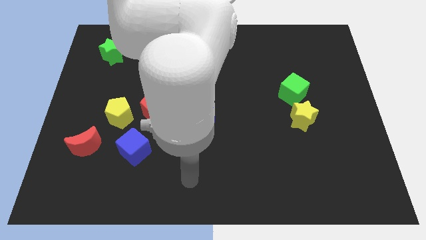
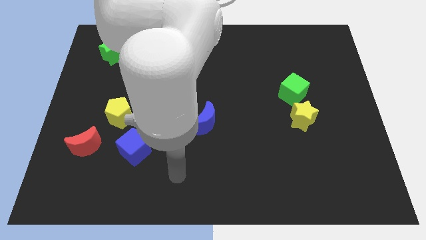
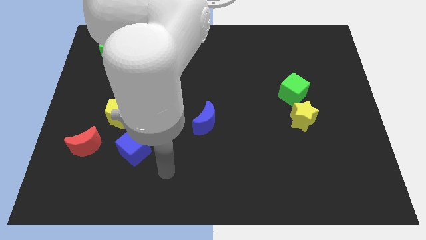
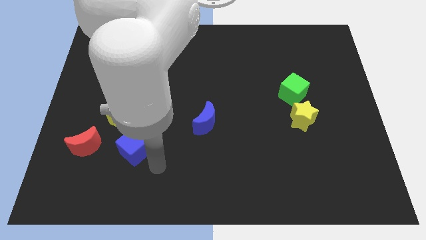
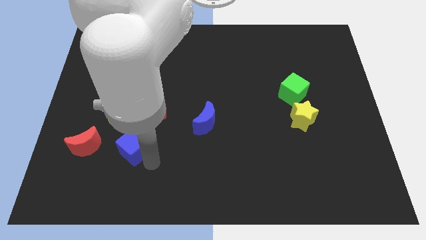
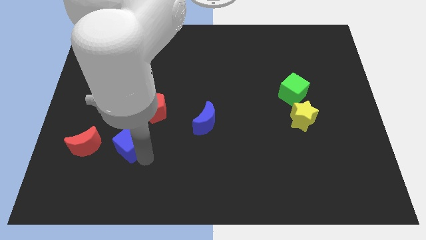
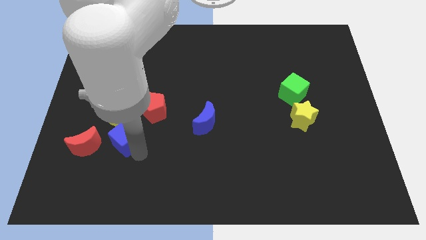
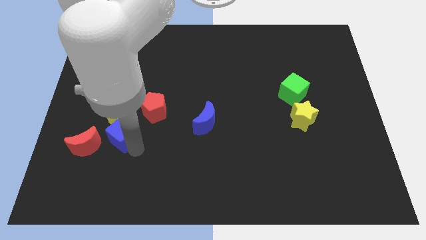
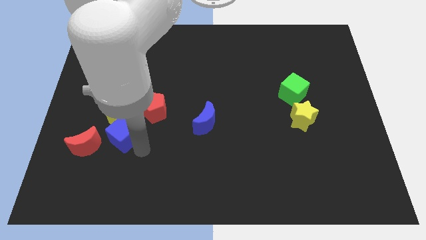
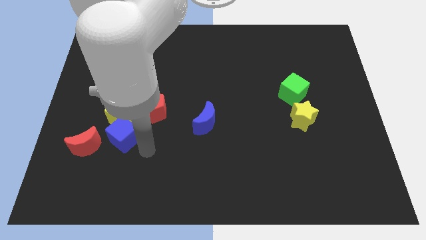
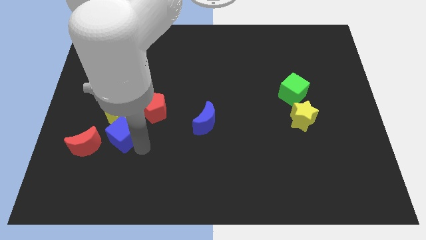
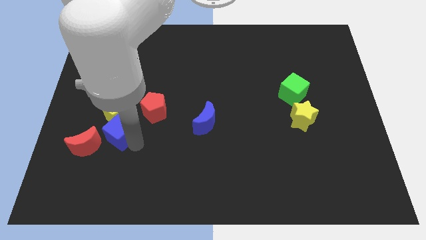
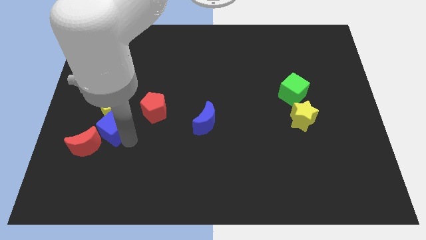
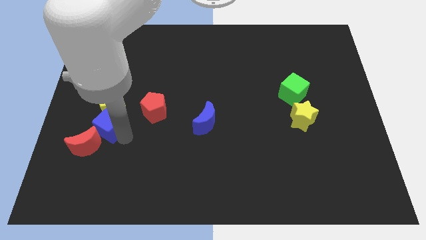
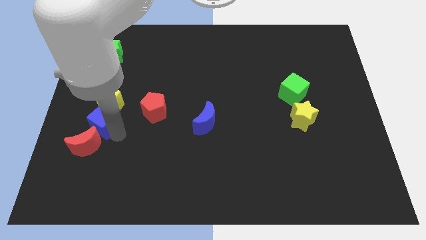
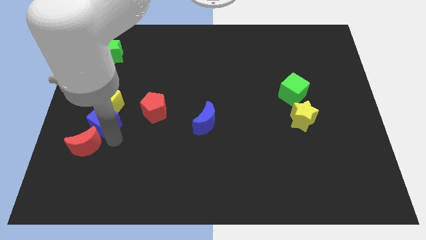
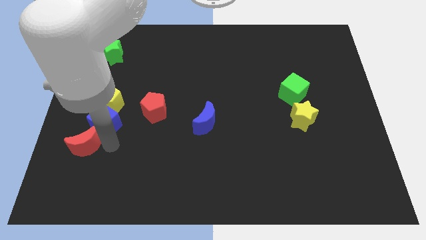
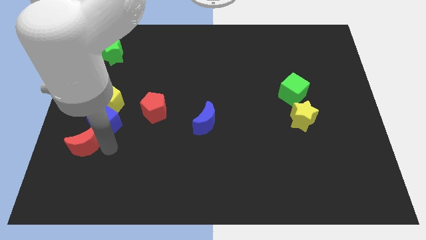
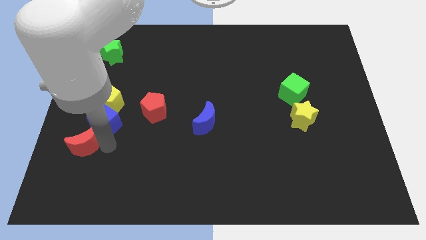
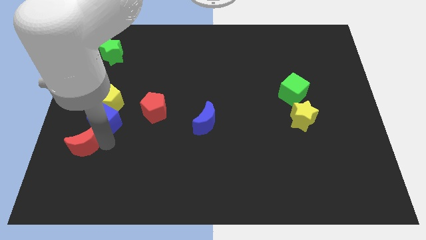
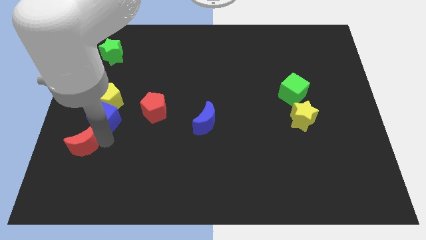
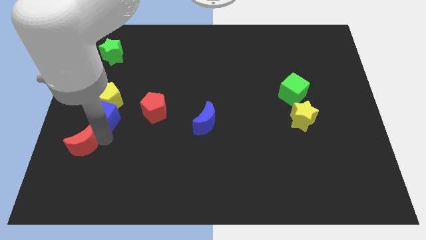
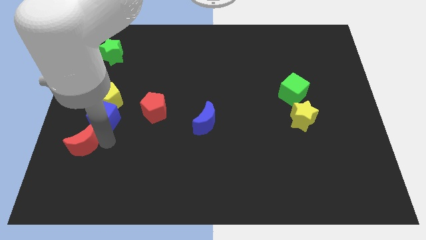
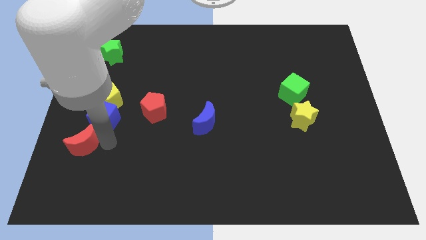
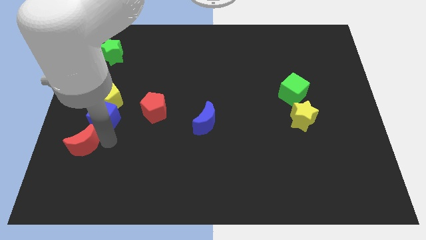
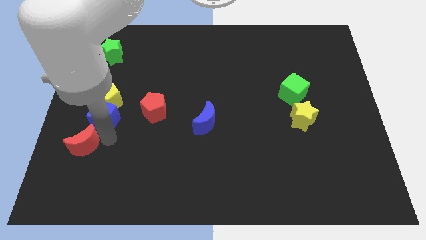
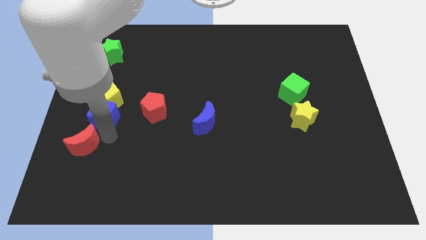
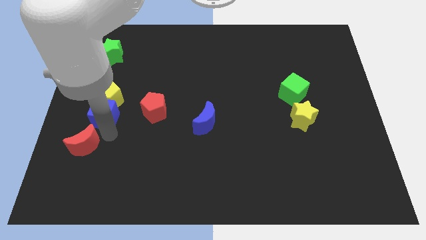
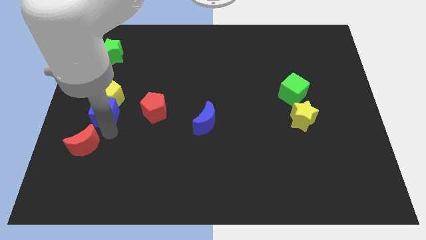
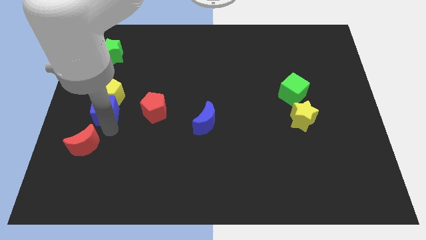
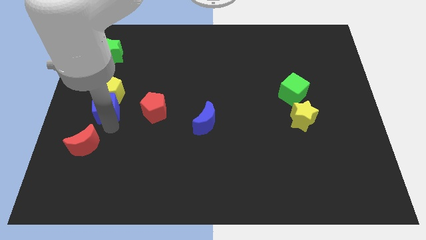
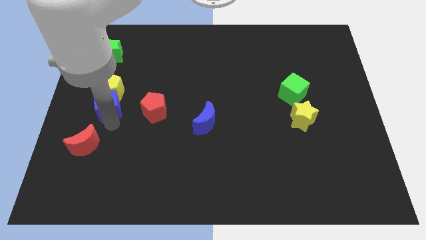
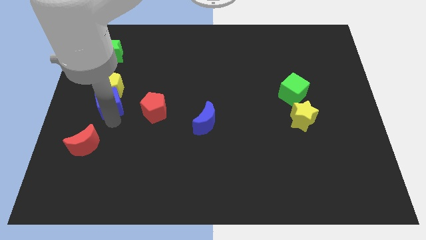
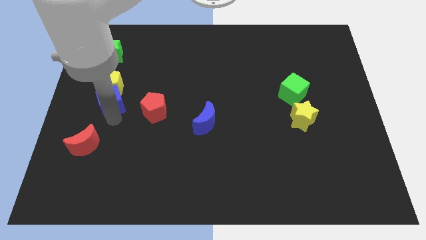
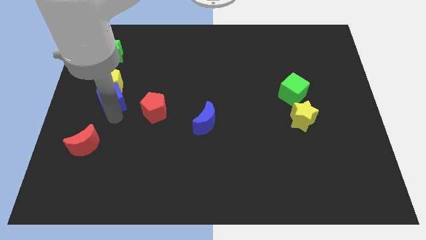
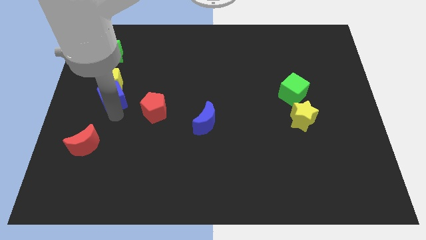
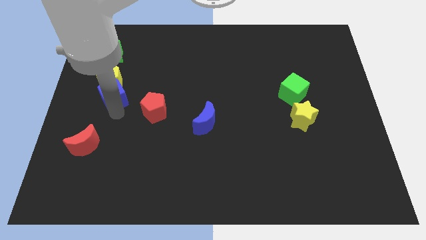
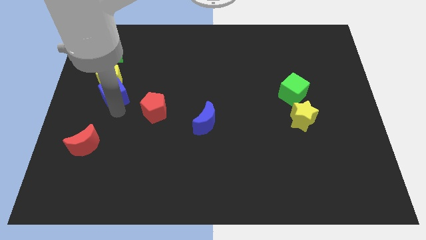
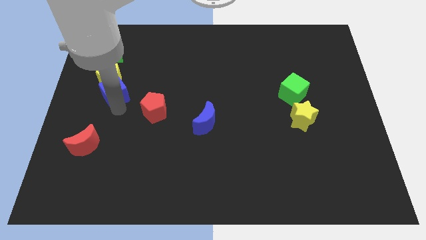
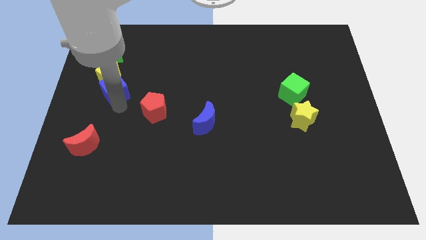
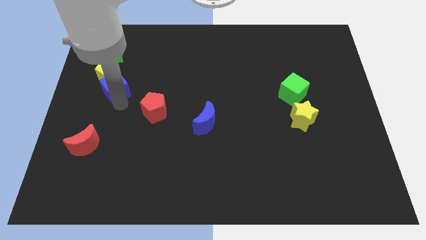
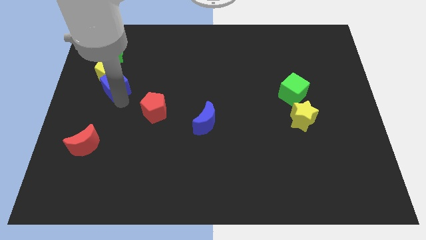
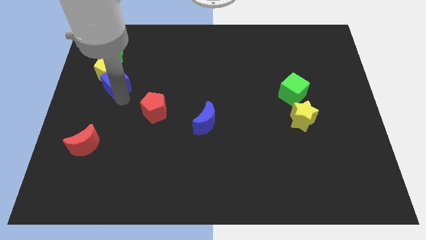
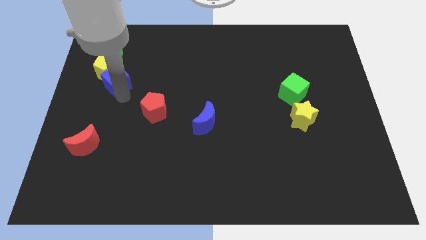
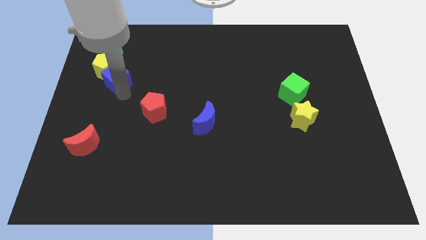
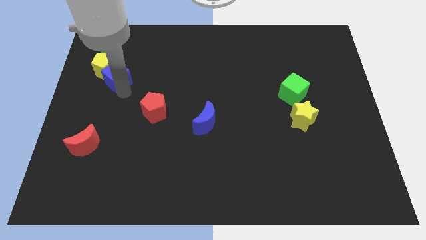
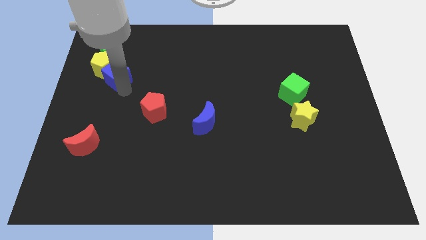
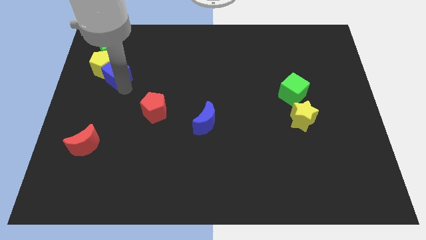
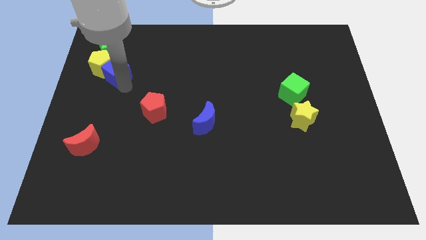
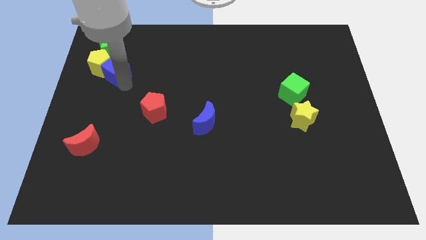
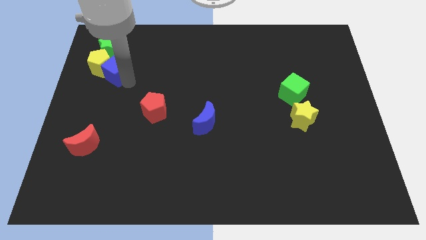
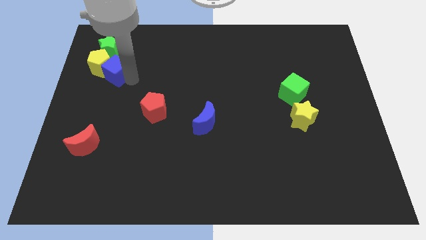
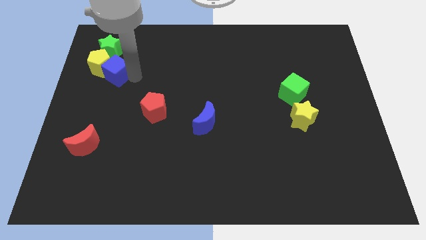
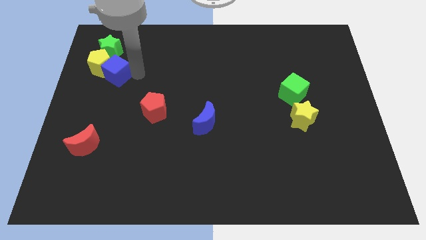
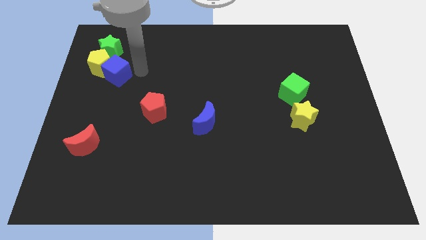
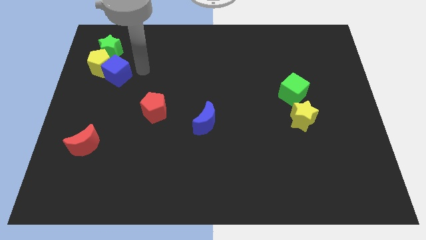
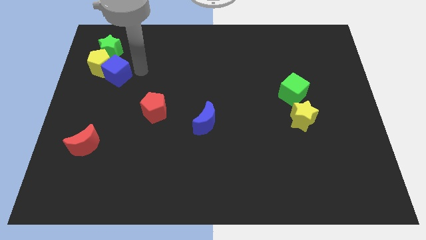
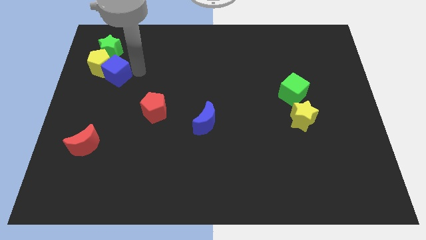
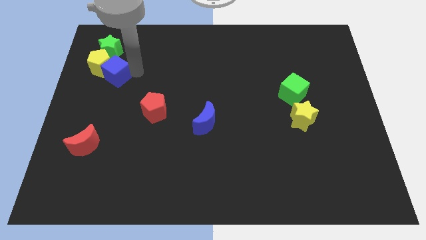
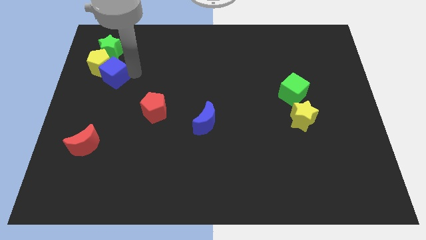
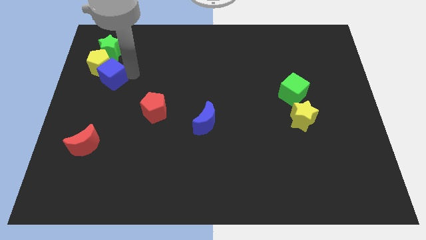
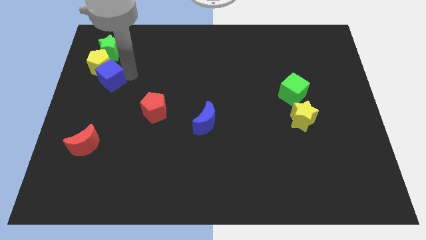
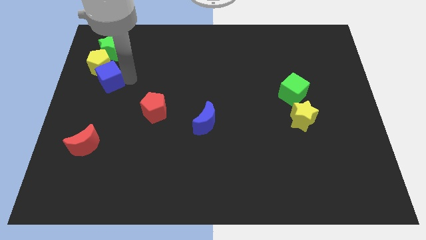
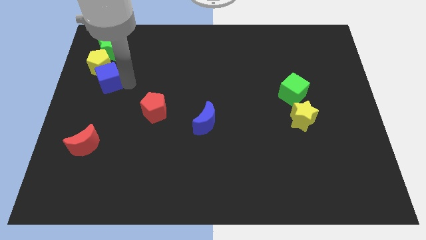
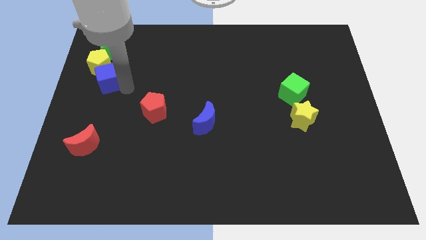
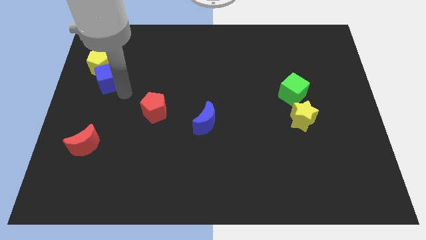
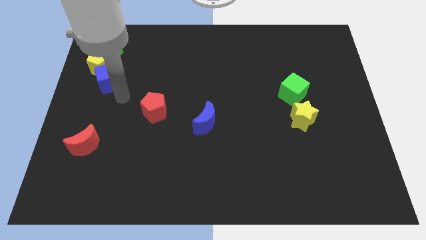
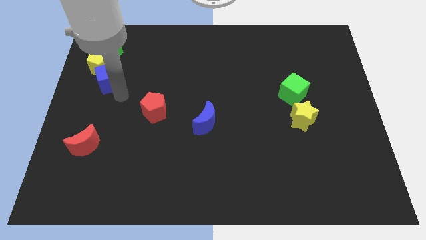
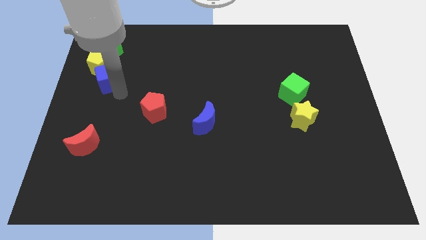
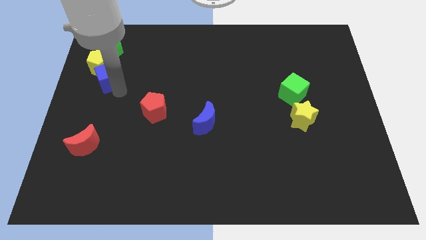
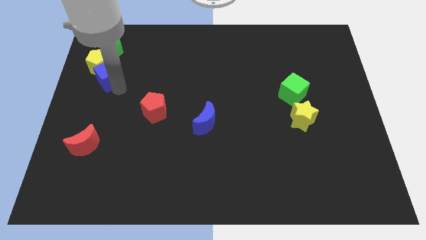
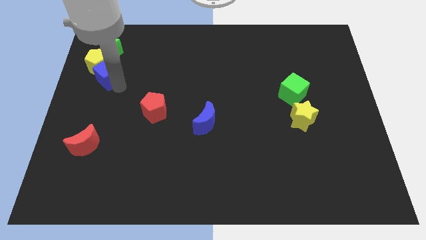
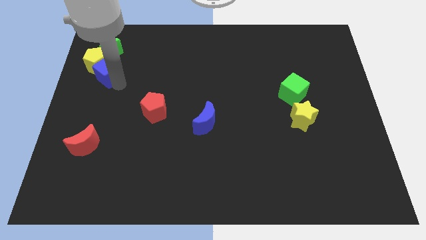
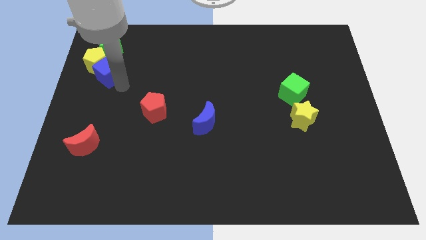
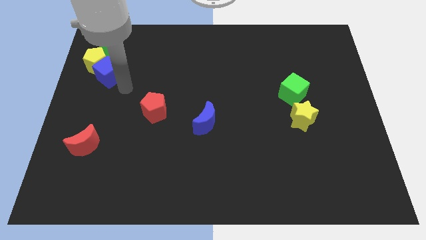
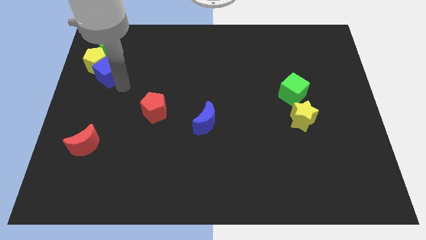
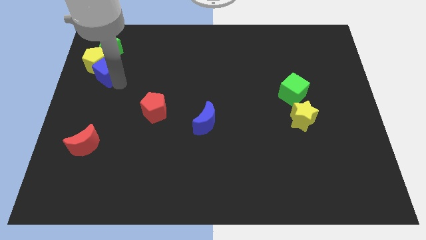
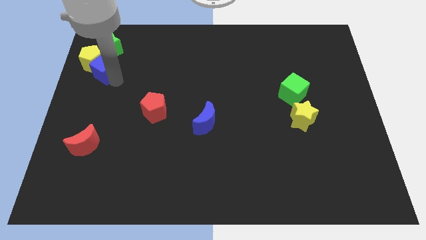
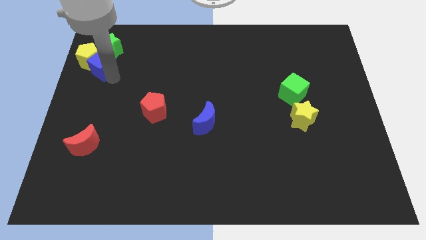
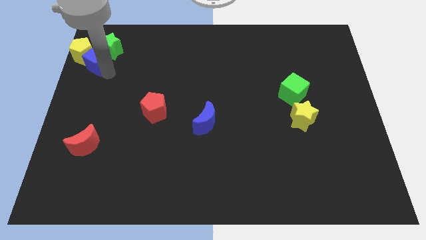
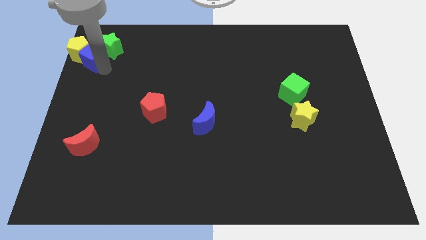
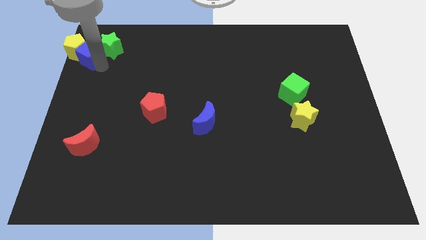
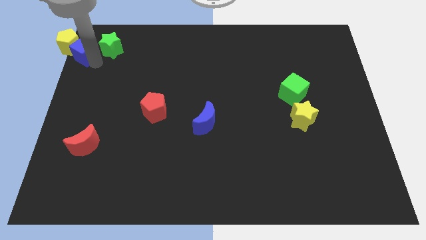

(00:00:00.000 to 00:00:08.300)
put the blue cube to the top left

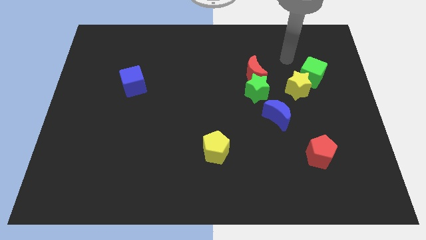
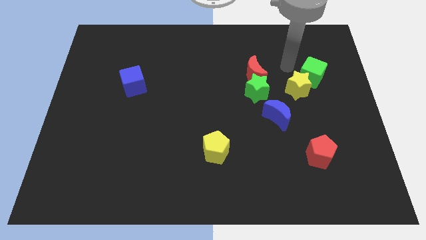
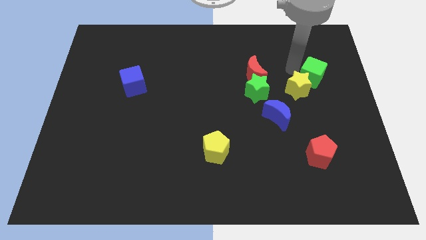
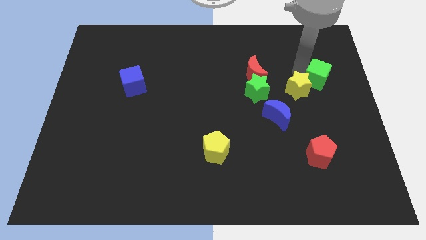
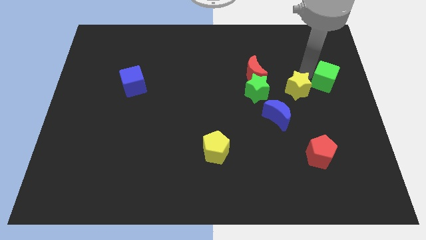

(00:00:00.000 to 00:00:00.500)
push the green cube to the center right
